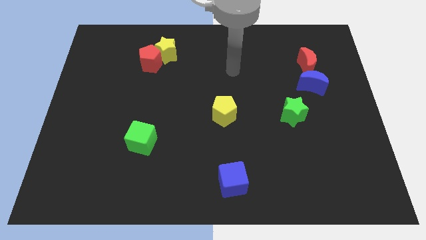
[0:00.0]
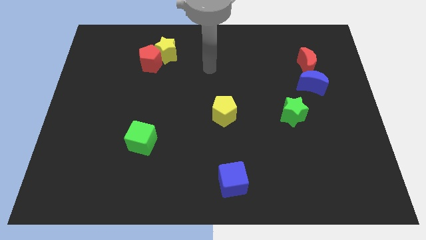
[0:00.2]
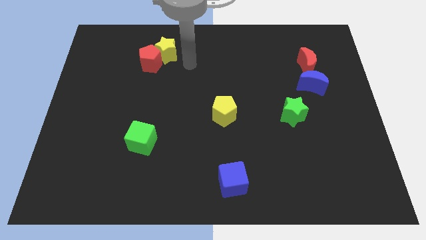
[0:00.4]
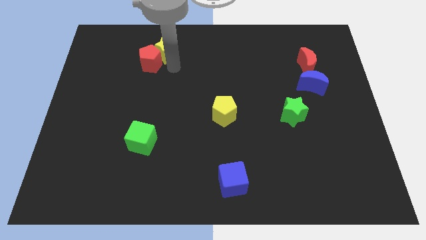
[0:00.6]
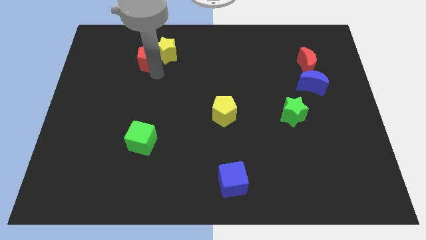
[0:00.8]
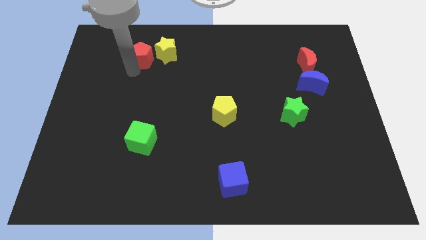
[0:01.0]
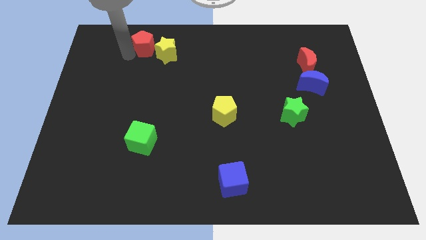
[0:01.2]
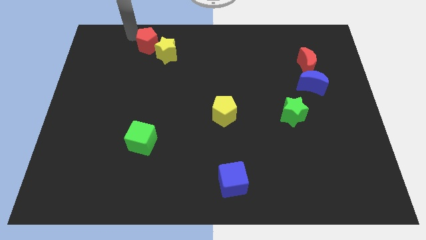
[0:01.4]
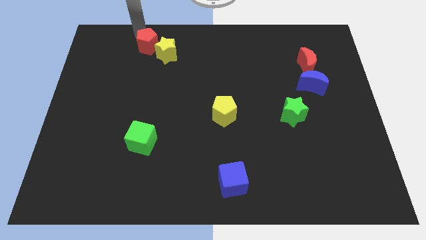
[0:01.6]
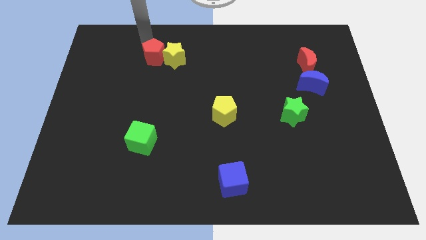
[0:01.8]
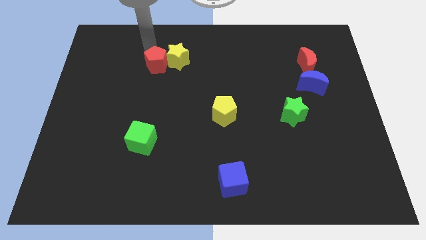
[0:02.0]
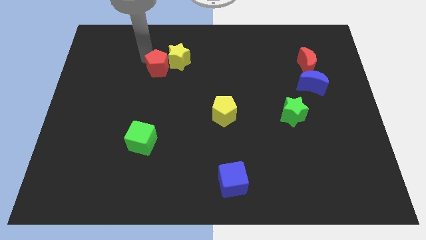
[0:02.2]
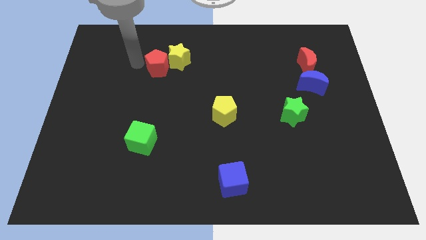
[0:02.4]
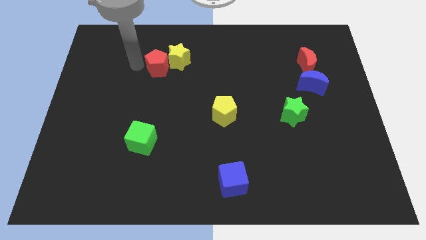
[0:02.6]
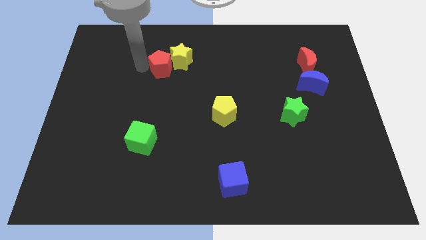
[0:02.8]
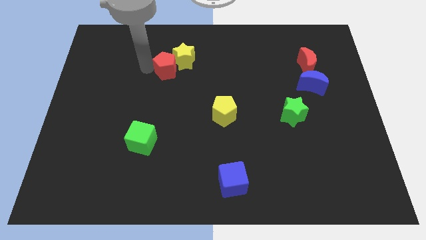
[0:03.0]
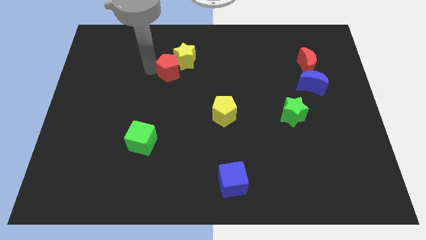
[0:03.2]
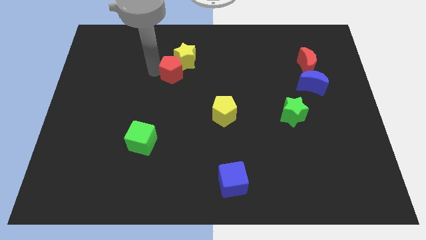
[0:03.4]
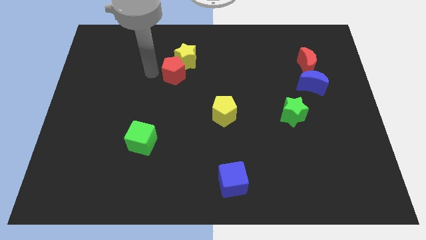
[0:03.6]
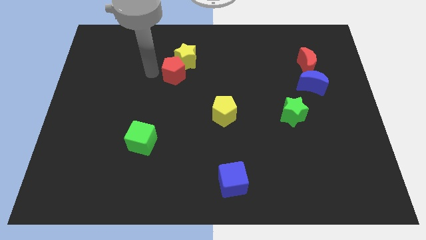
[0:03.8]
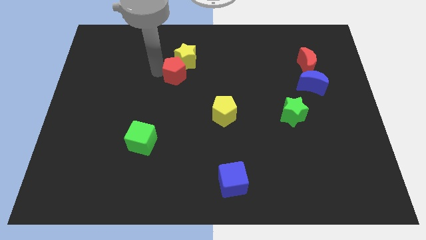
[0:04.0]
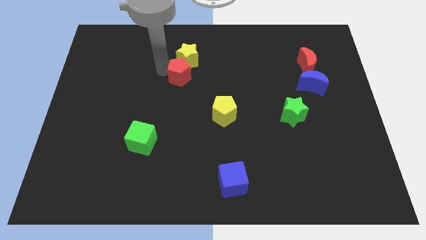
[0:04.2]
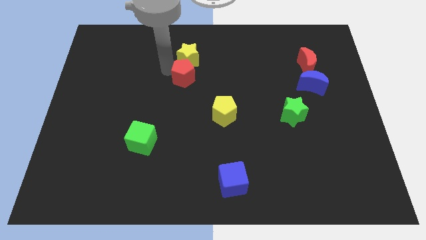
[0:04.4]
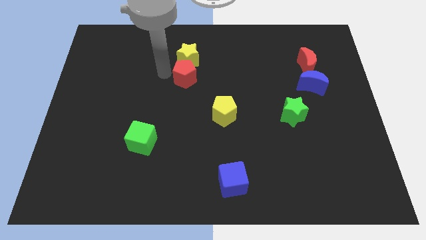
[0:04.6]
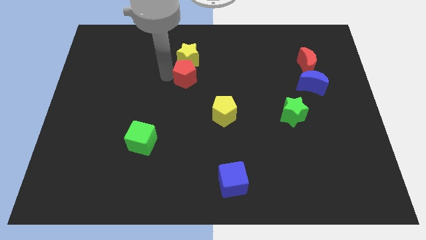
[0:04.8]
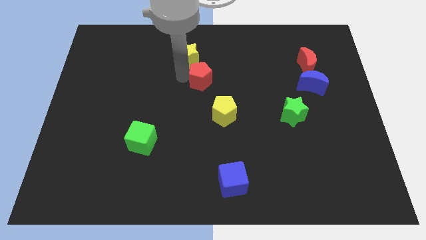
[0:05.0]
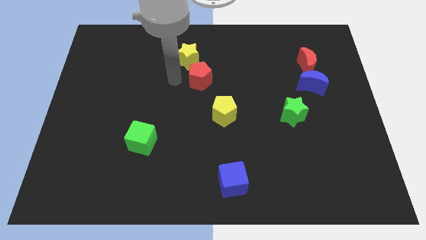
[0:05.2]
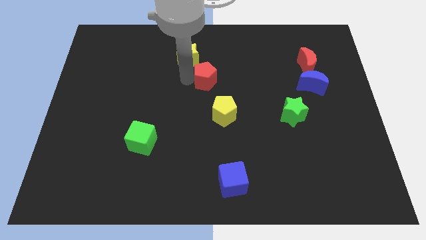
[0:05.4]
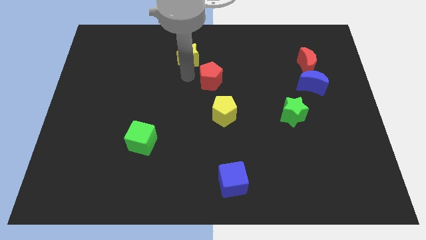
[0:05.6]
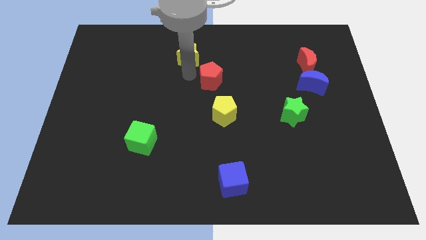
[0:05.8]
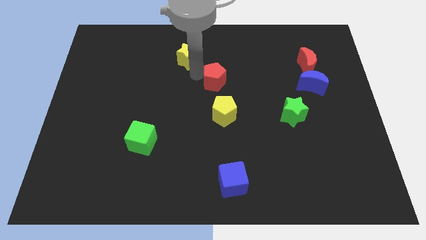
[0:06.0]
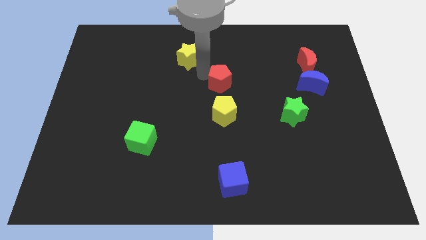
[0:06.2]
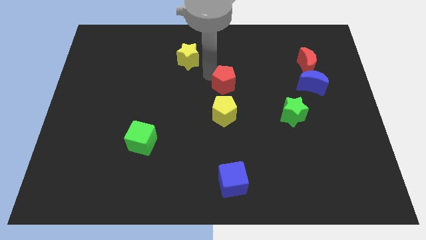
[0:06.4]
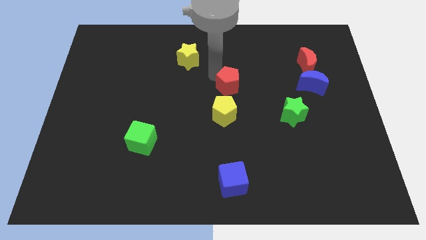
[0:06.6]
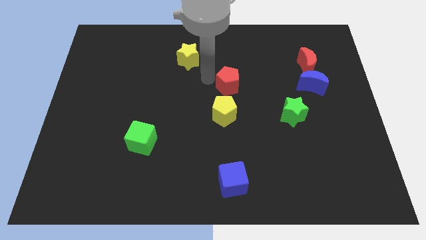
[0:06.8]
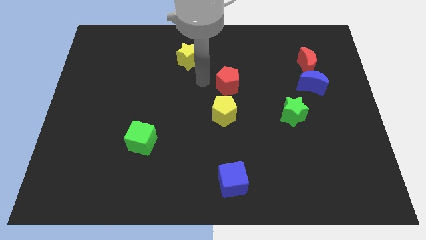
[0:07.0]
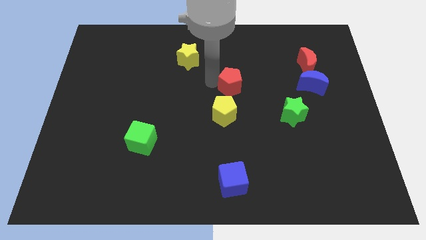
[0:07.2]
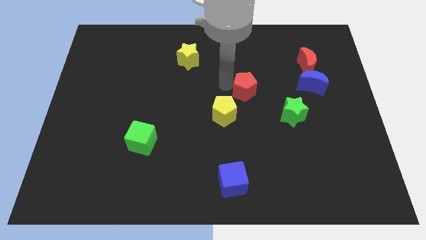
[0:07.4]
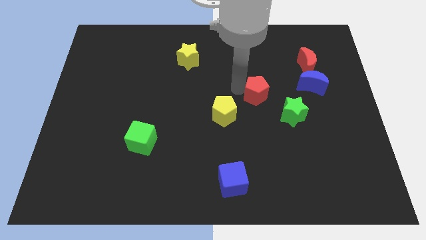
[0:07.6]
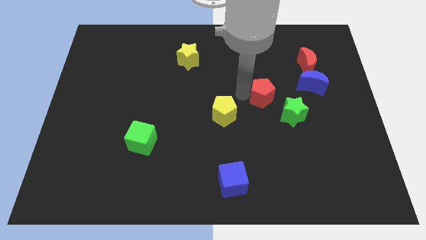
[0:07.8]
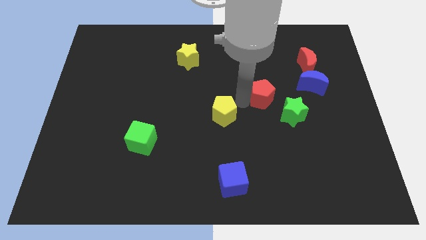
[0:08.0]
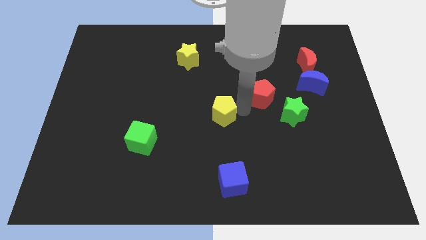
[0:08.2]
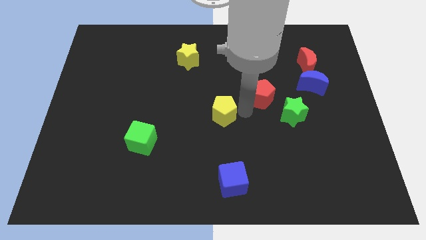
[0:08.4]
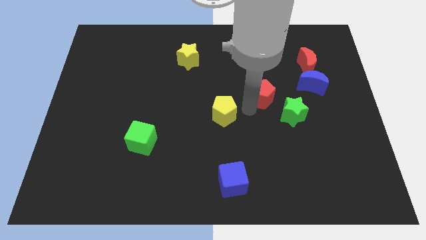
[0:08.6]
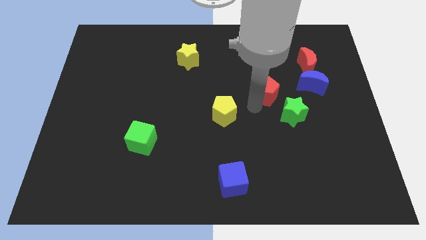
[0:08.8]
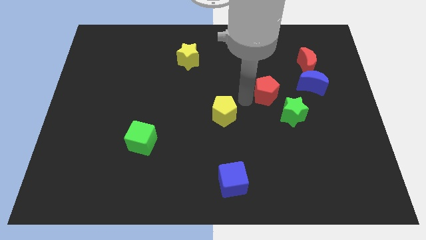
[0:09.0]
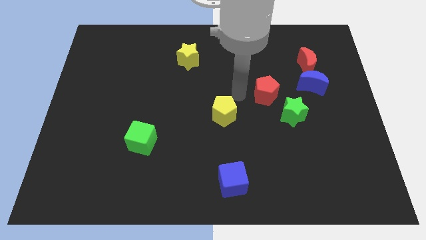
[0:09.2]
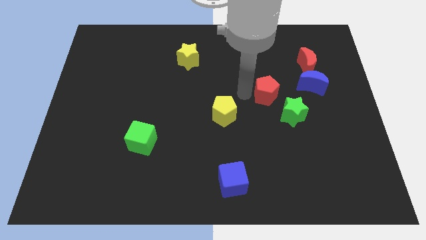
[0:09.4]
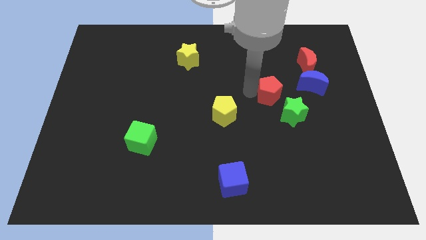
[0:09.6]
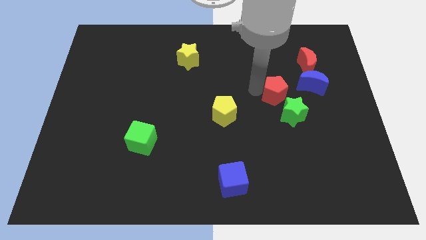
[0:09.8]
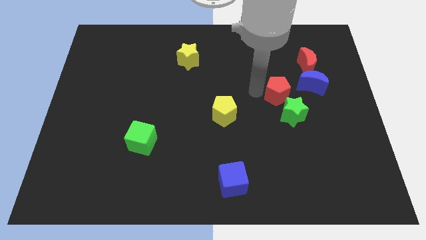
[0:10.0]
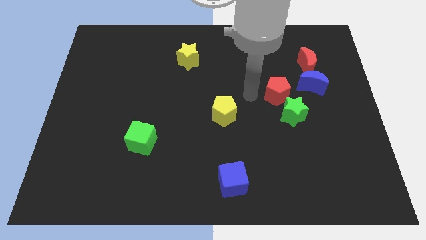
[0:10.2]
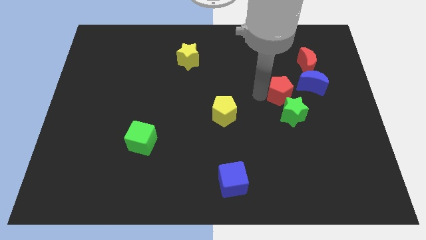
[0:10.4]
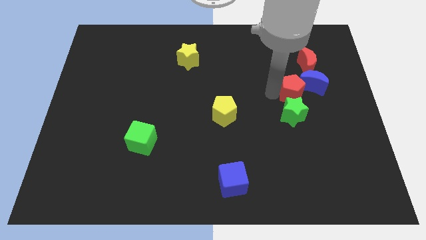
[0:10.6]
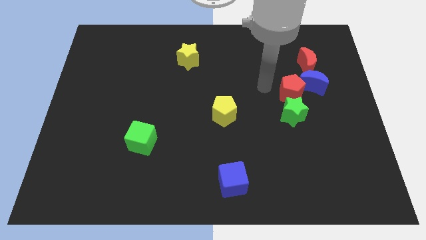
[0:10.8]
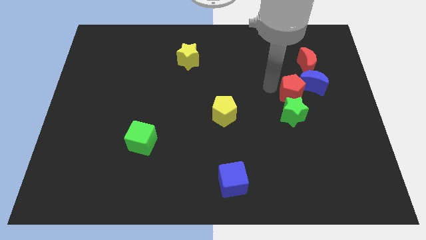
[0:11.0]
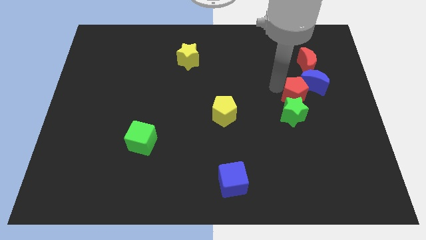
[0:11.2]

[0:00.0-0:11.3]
put the red pentagon to the bottom of the red moon

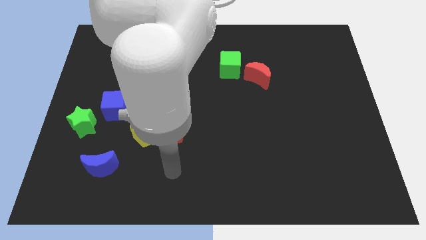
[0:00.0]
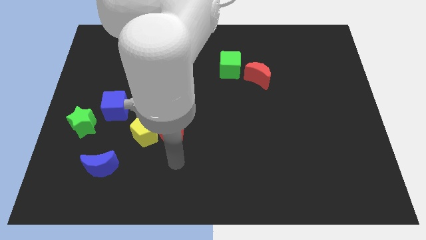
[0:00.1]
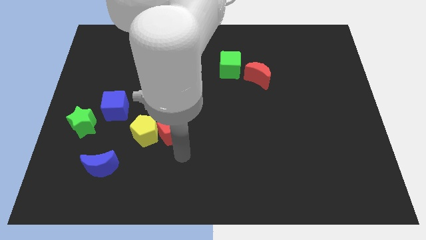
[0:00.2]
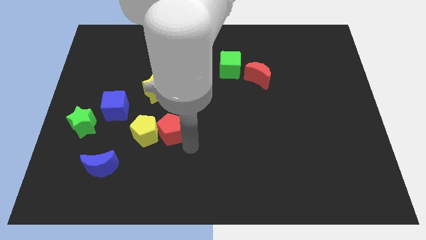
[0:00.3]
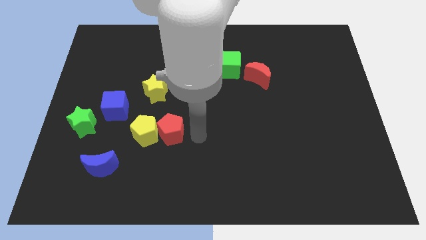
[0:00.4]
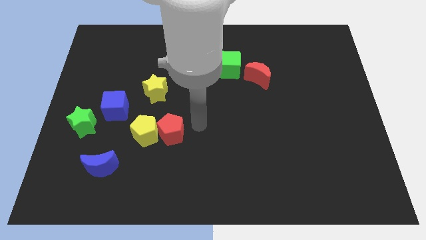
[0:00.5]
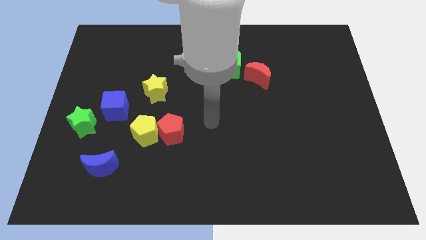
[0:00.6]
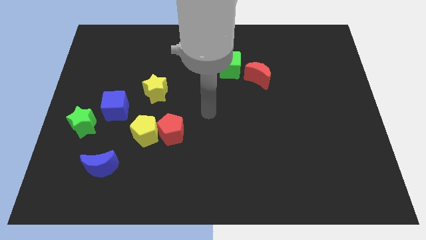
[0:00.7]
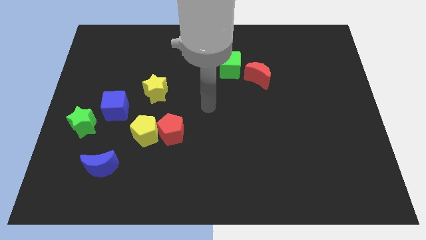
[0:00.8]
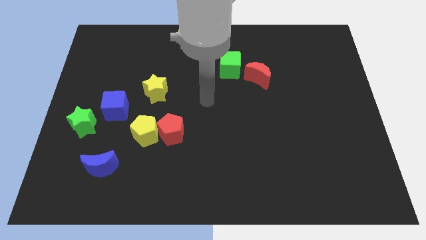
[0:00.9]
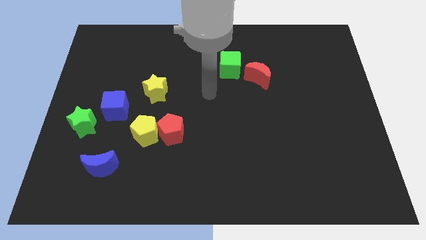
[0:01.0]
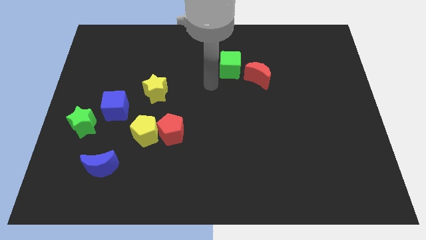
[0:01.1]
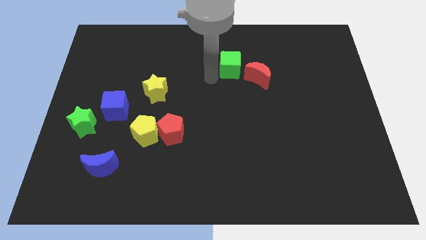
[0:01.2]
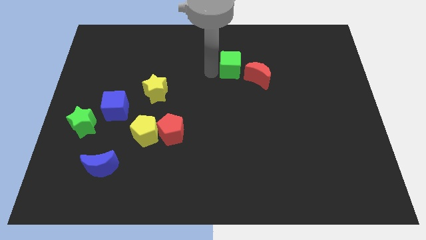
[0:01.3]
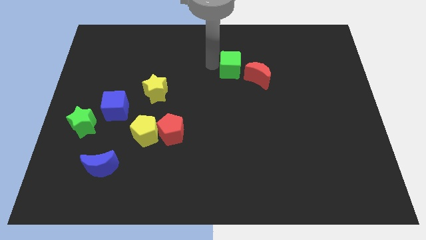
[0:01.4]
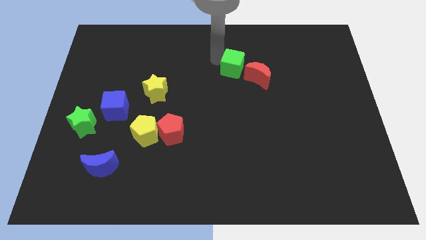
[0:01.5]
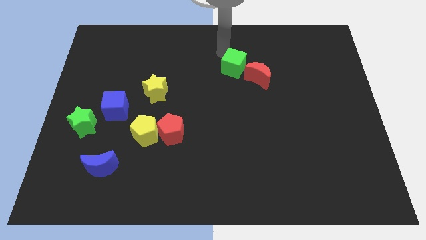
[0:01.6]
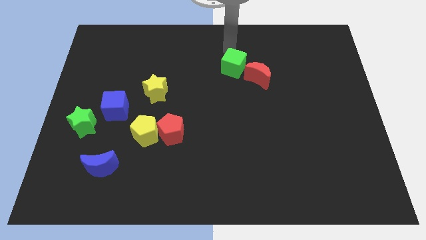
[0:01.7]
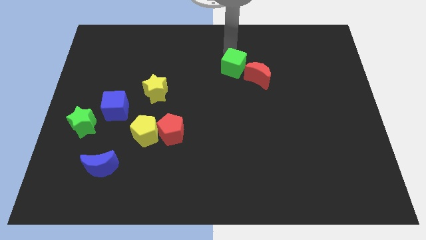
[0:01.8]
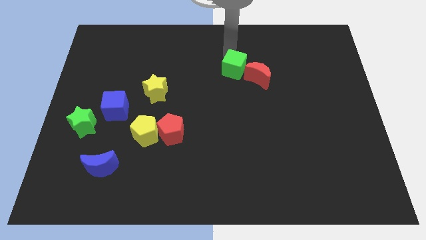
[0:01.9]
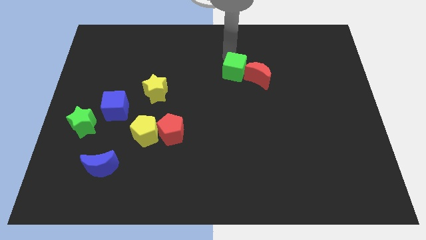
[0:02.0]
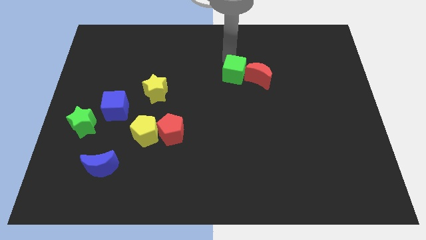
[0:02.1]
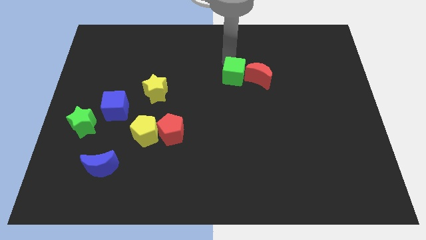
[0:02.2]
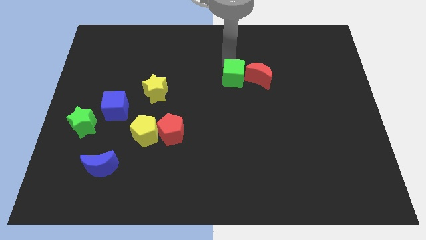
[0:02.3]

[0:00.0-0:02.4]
move the green cube to the bottom left of the red moon
